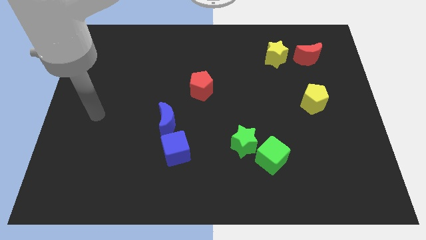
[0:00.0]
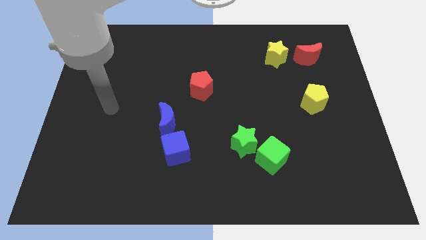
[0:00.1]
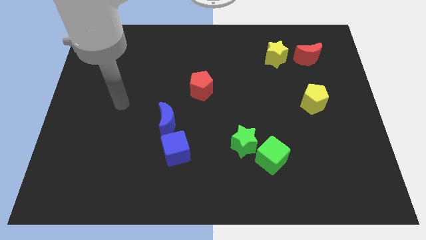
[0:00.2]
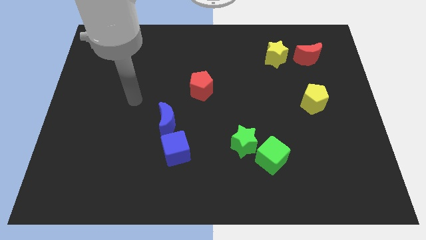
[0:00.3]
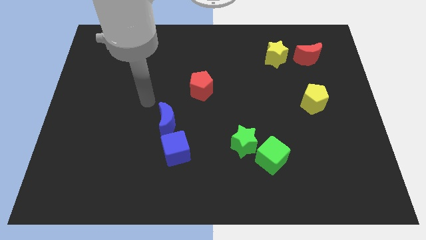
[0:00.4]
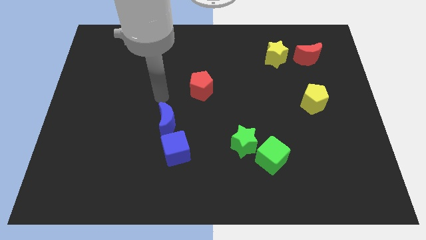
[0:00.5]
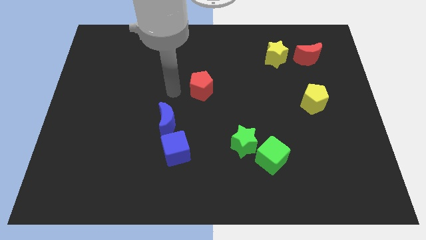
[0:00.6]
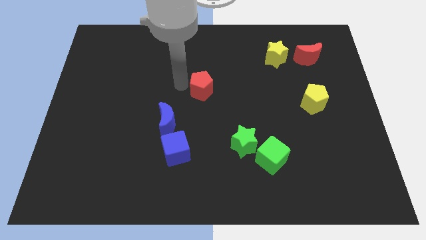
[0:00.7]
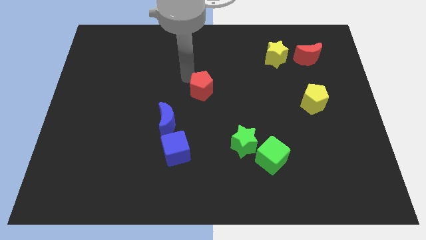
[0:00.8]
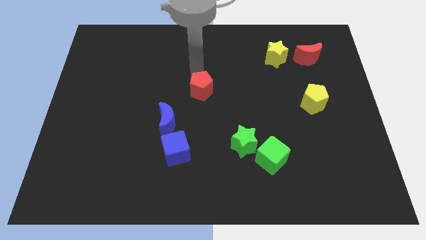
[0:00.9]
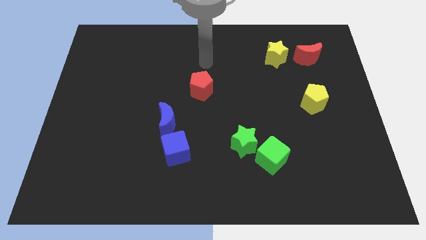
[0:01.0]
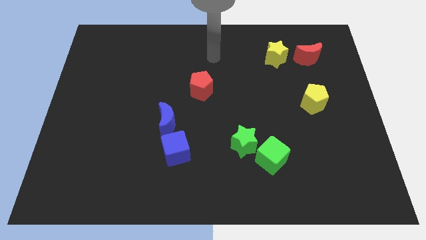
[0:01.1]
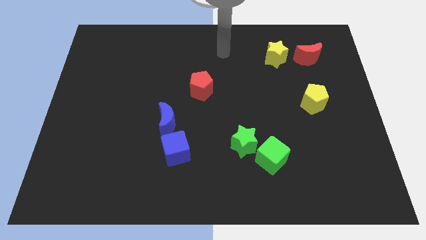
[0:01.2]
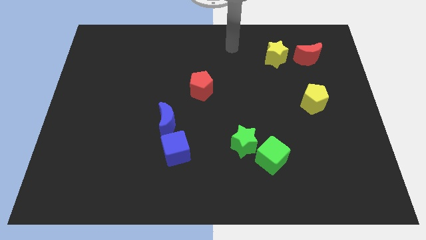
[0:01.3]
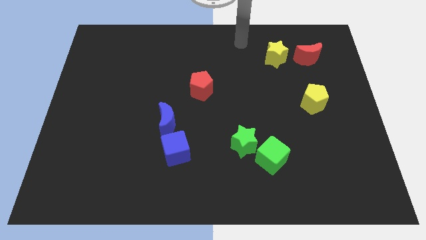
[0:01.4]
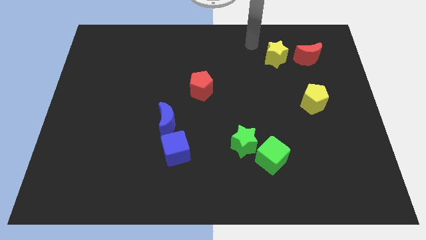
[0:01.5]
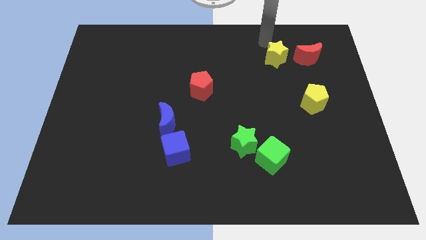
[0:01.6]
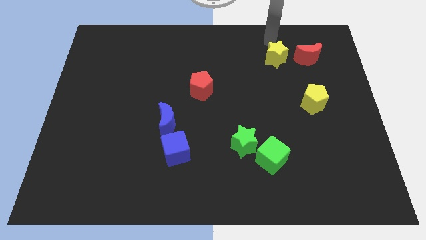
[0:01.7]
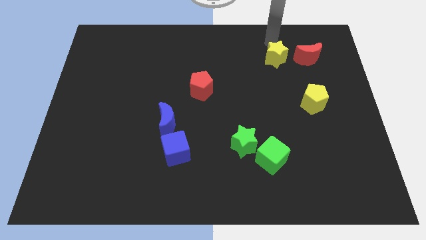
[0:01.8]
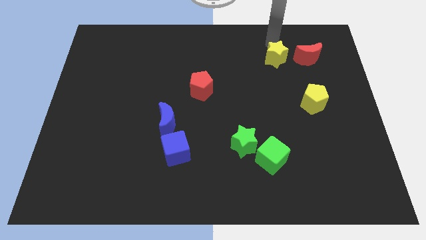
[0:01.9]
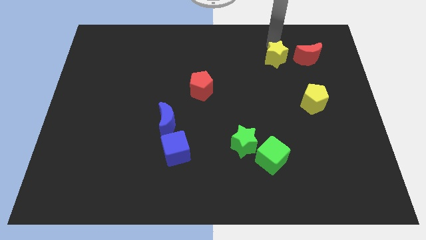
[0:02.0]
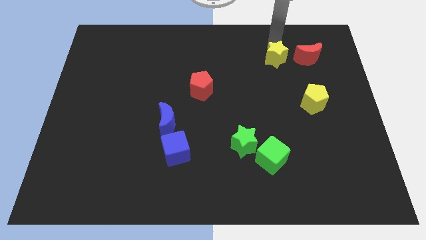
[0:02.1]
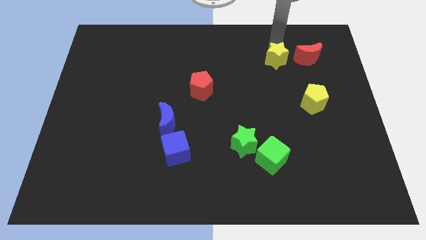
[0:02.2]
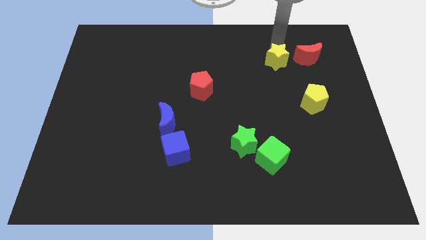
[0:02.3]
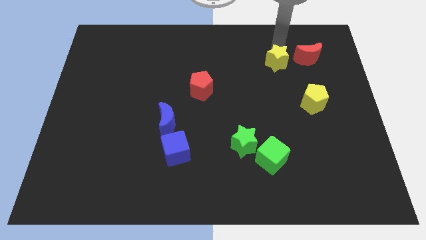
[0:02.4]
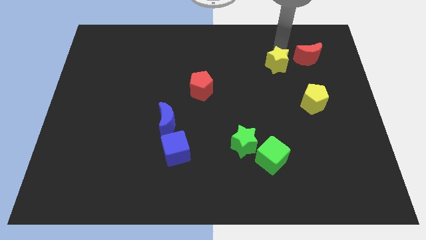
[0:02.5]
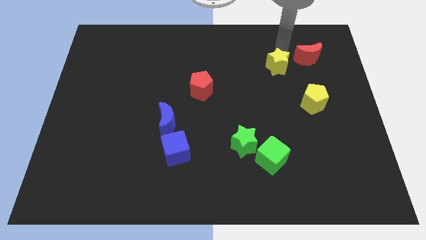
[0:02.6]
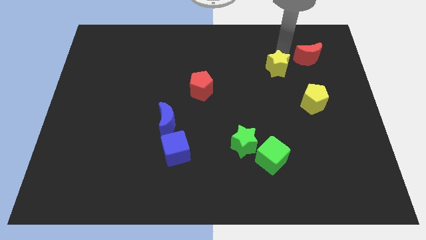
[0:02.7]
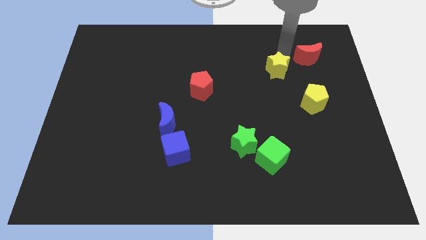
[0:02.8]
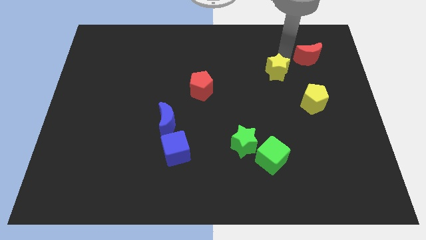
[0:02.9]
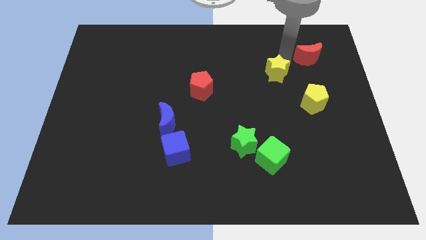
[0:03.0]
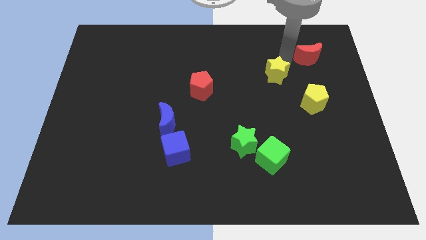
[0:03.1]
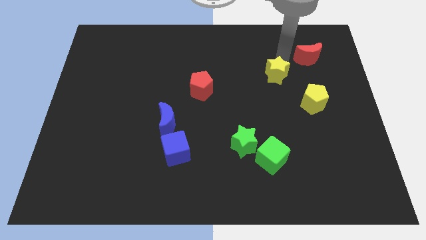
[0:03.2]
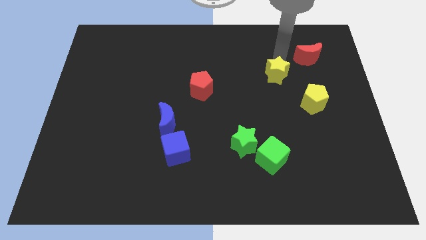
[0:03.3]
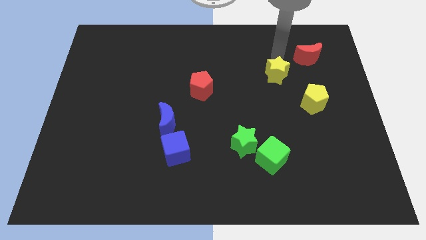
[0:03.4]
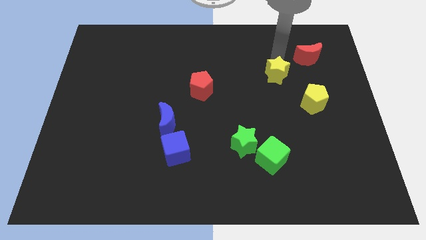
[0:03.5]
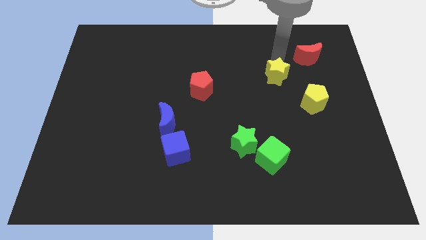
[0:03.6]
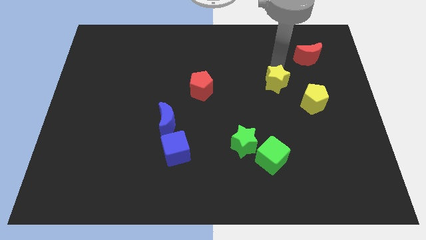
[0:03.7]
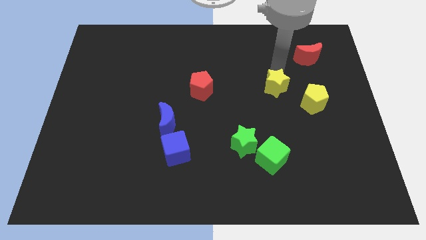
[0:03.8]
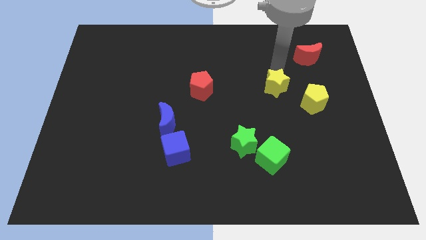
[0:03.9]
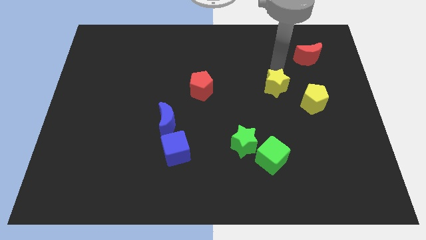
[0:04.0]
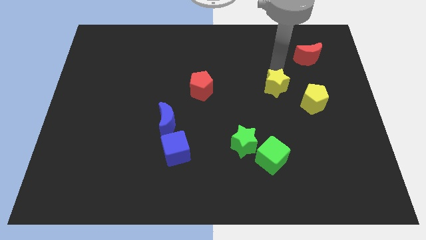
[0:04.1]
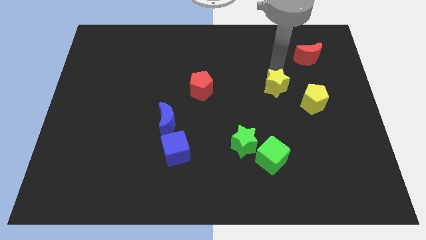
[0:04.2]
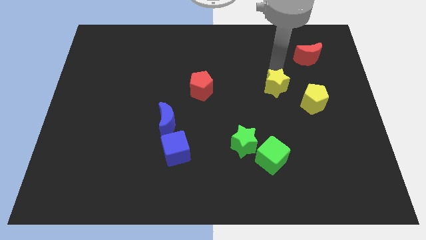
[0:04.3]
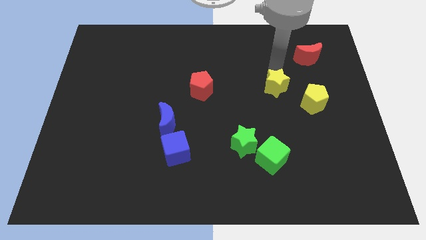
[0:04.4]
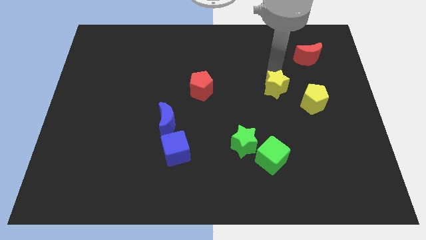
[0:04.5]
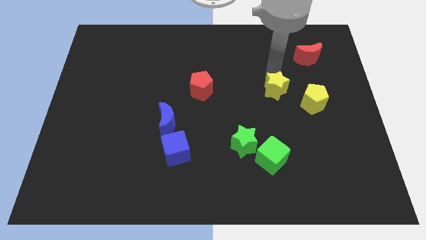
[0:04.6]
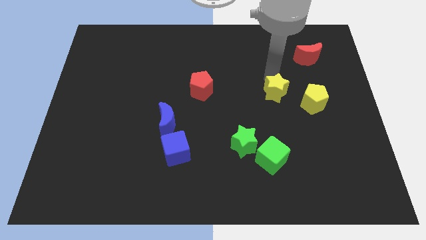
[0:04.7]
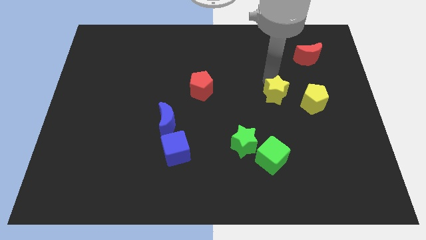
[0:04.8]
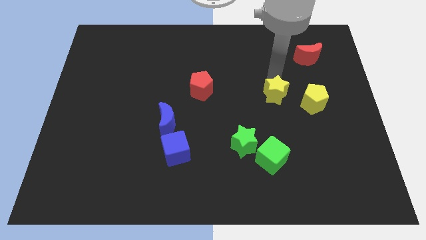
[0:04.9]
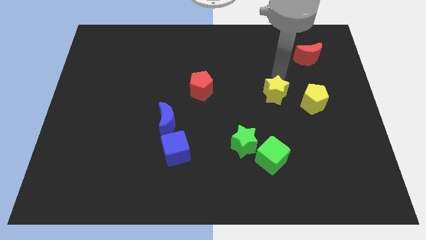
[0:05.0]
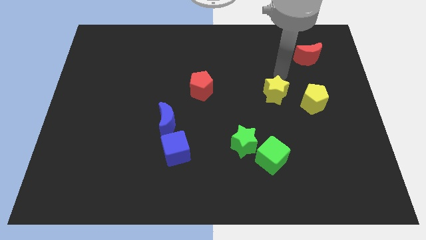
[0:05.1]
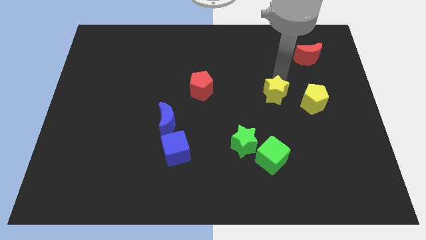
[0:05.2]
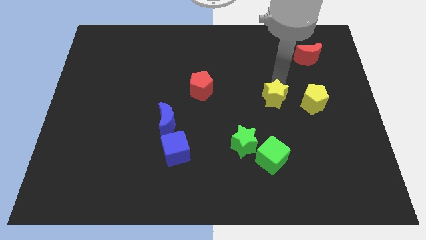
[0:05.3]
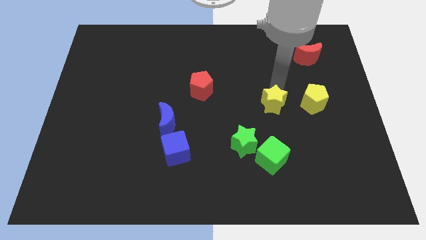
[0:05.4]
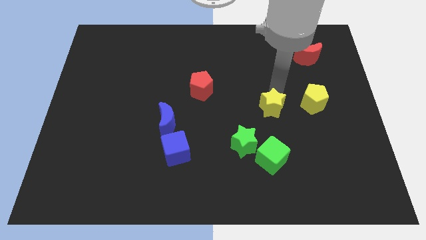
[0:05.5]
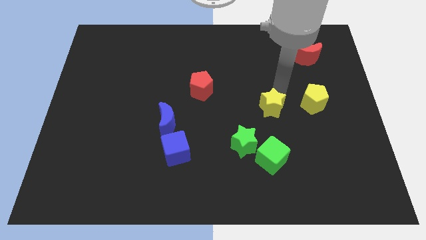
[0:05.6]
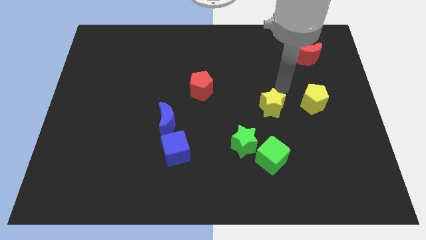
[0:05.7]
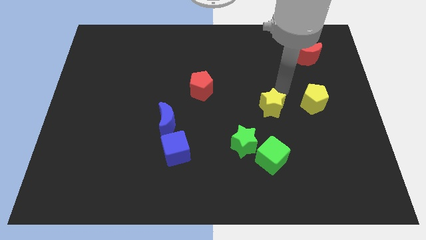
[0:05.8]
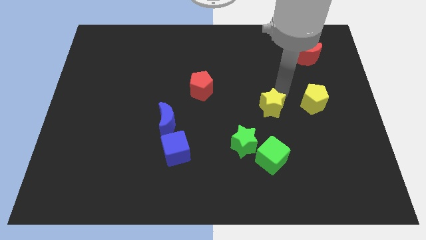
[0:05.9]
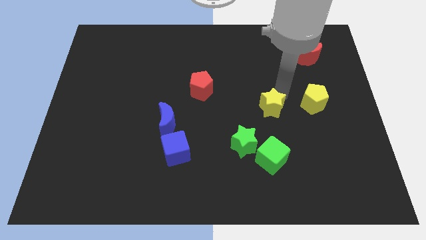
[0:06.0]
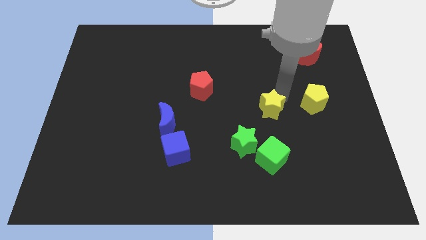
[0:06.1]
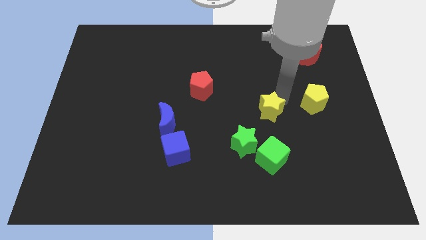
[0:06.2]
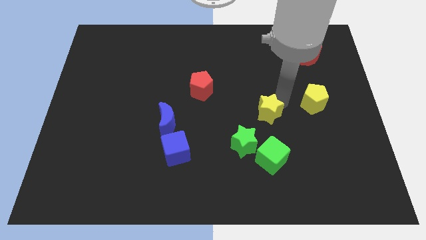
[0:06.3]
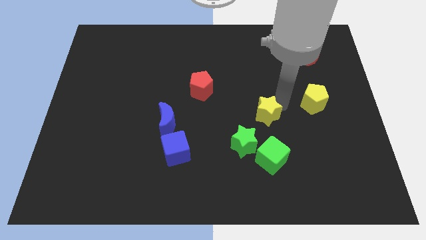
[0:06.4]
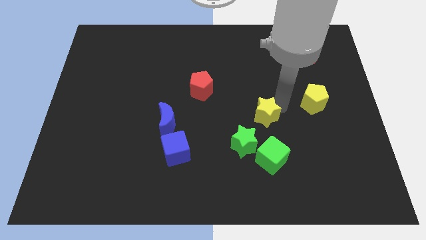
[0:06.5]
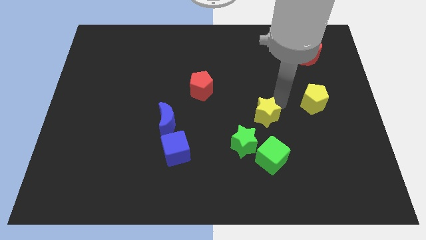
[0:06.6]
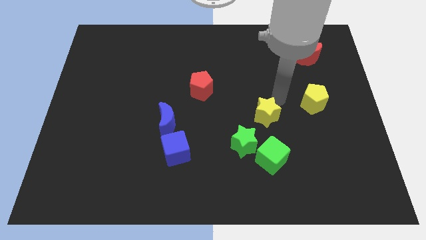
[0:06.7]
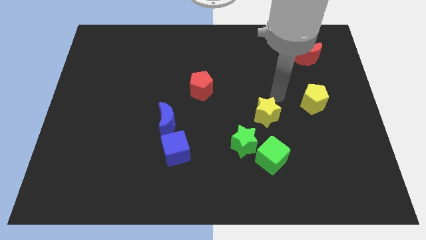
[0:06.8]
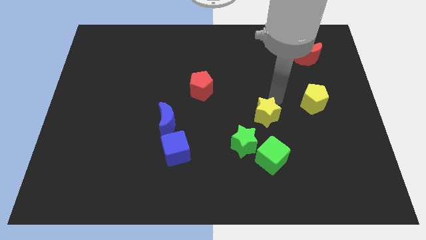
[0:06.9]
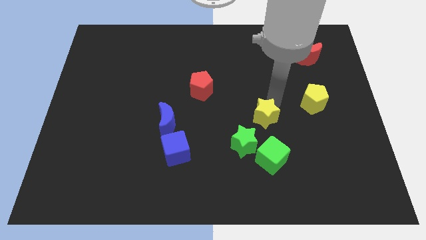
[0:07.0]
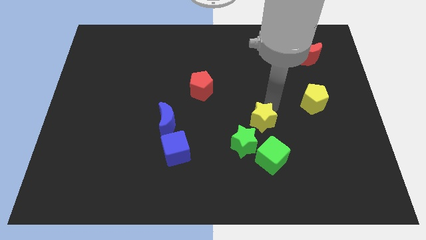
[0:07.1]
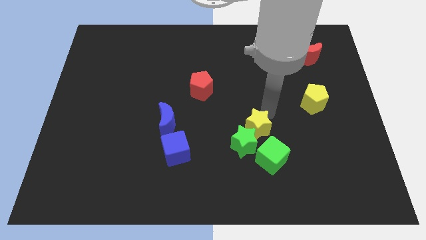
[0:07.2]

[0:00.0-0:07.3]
move the yellow star close to the green star
